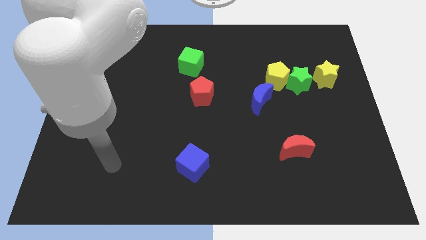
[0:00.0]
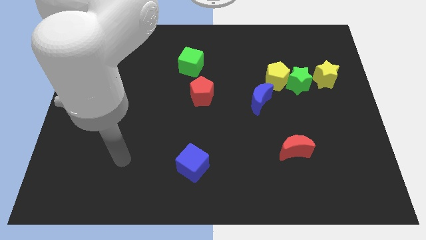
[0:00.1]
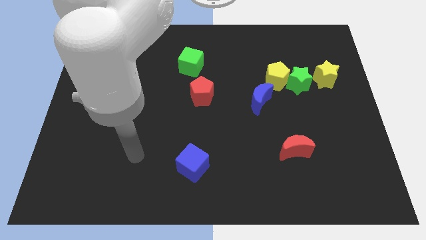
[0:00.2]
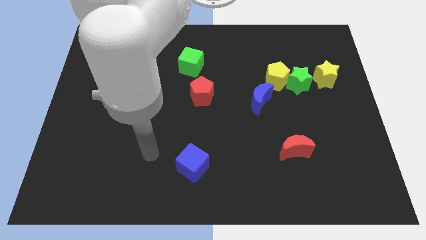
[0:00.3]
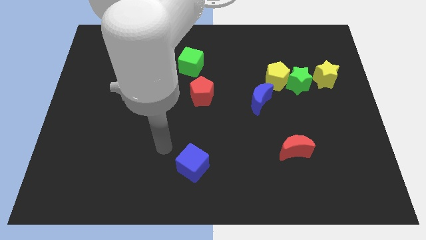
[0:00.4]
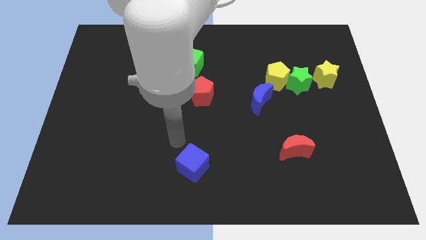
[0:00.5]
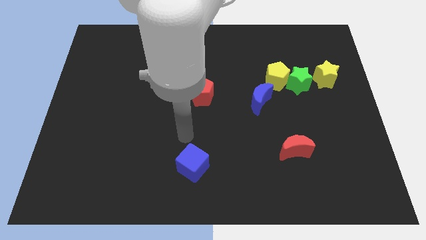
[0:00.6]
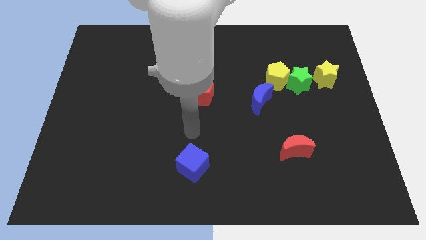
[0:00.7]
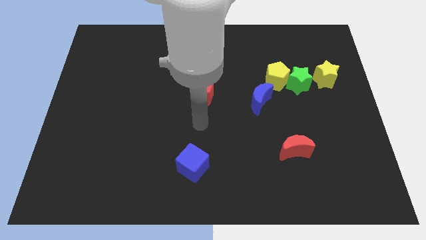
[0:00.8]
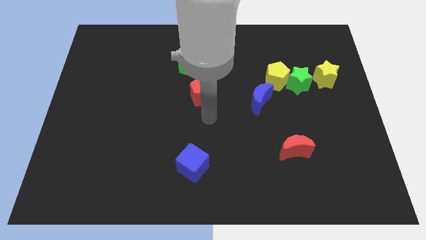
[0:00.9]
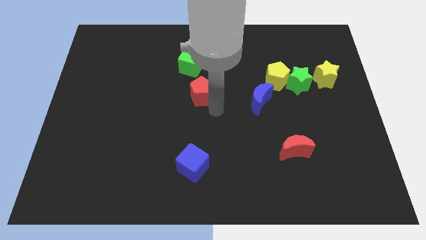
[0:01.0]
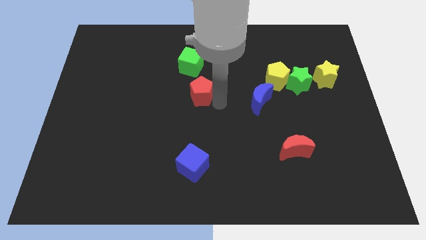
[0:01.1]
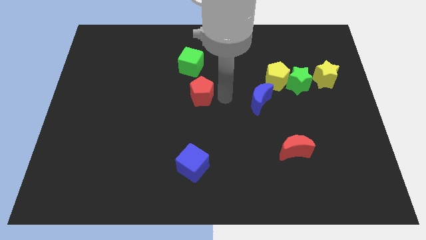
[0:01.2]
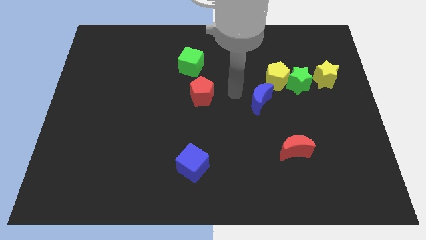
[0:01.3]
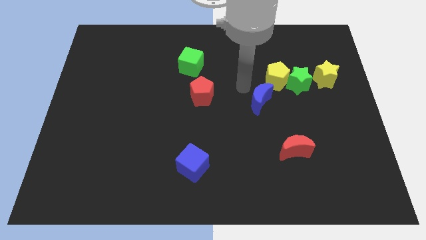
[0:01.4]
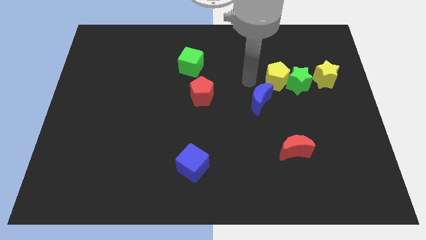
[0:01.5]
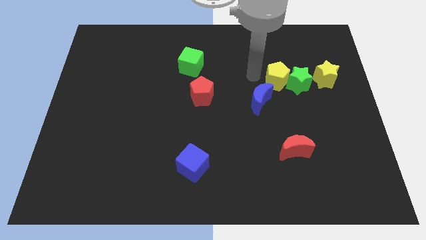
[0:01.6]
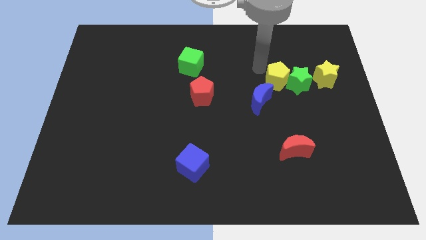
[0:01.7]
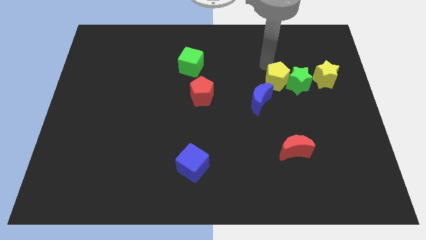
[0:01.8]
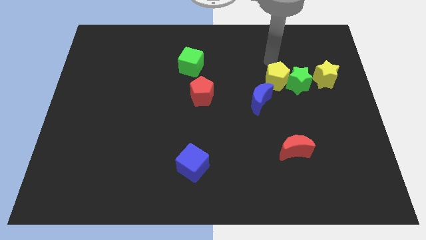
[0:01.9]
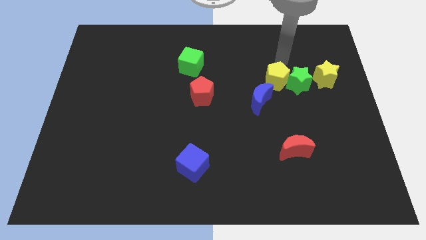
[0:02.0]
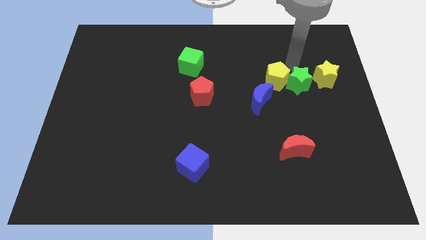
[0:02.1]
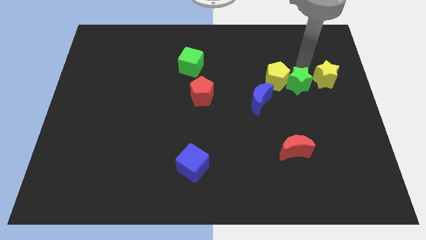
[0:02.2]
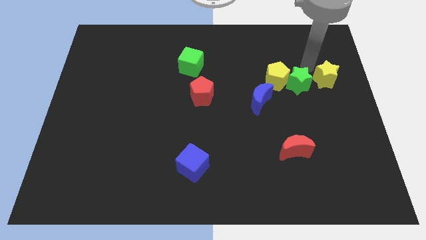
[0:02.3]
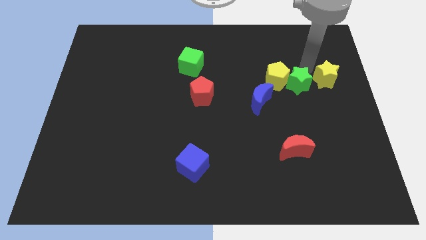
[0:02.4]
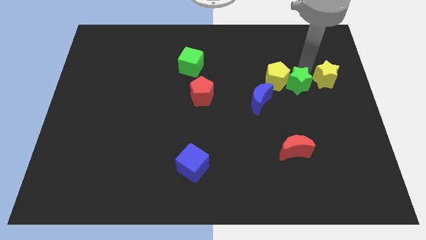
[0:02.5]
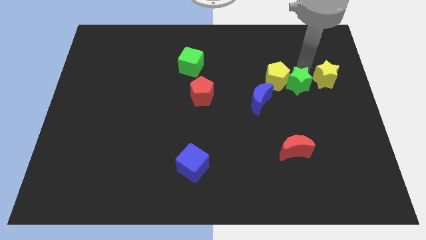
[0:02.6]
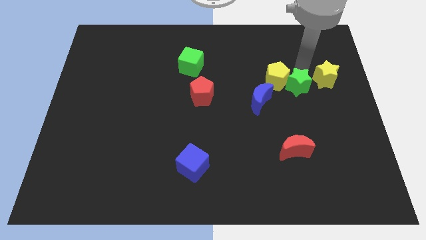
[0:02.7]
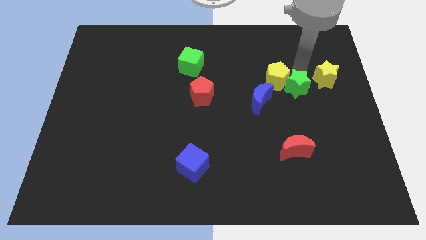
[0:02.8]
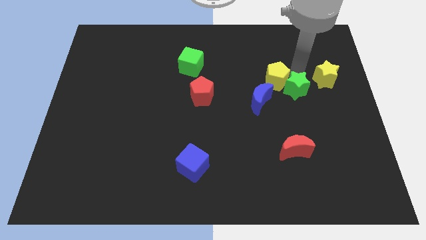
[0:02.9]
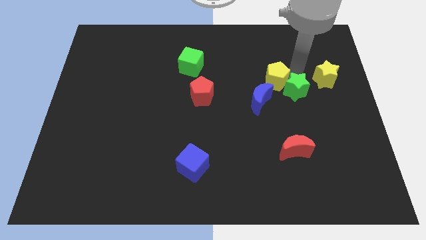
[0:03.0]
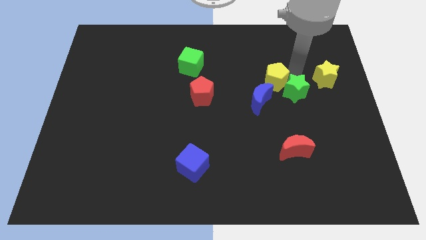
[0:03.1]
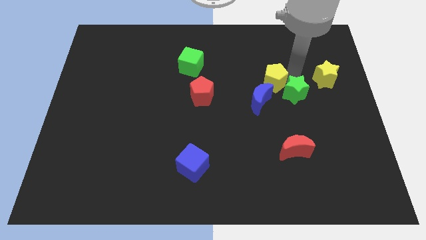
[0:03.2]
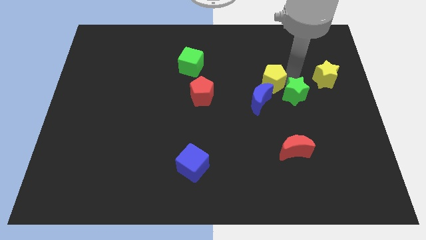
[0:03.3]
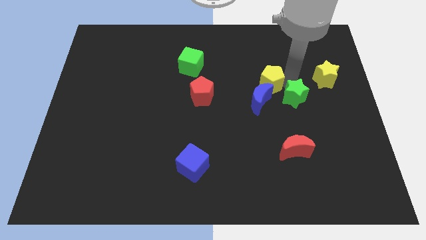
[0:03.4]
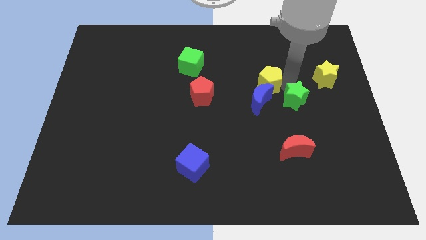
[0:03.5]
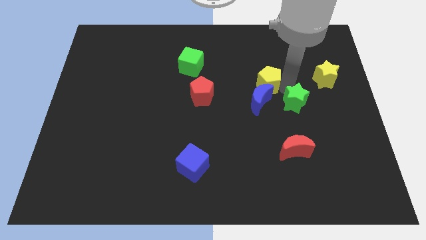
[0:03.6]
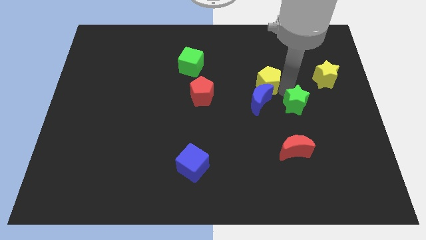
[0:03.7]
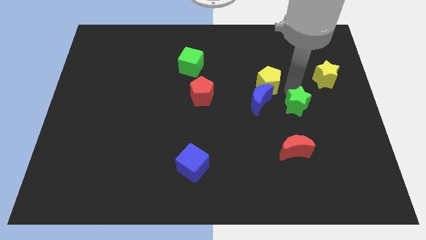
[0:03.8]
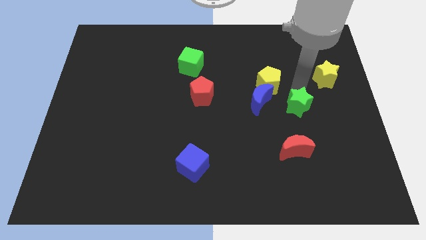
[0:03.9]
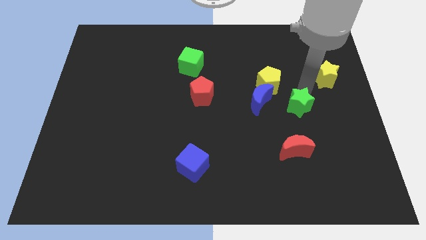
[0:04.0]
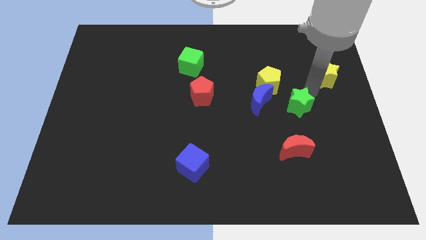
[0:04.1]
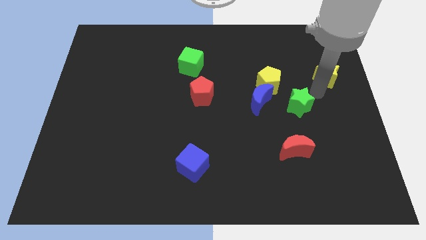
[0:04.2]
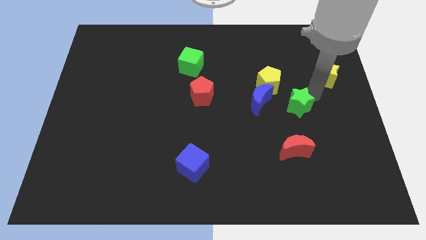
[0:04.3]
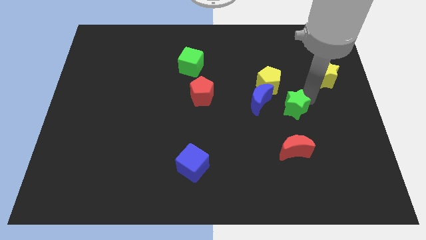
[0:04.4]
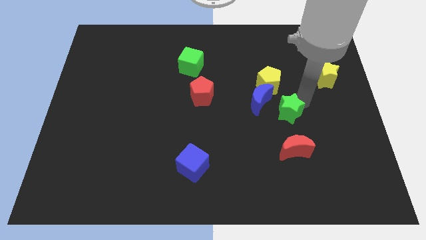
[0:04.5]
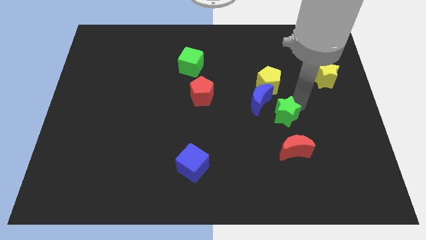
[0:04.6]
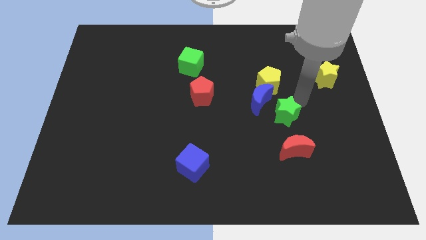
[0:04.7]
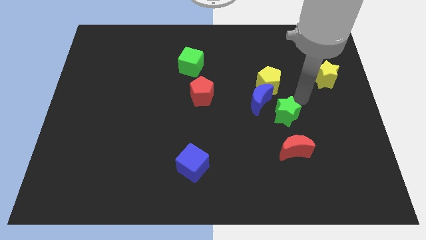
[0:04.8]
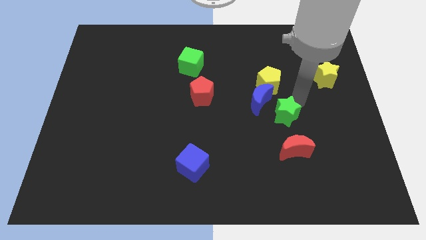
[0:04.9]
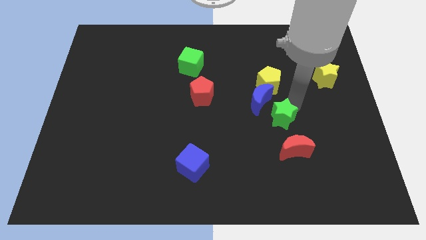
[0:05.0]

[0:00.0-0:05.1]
move the green star diagonally up and to the left of the red moon

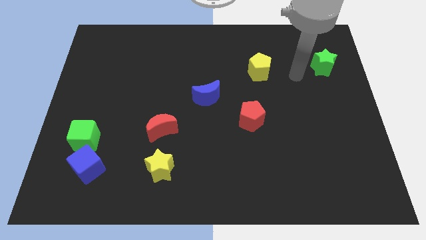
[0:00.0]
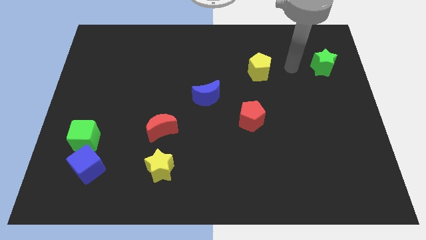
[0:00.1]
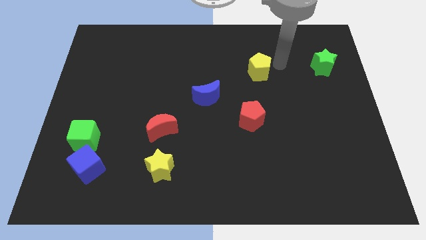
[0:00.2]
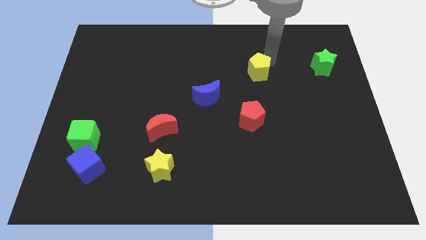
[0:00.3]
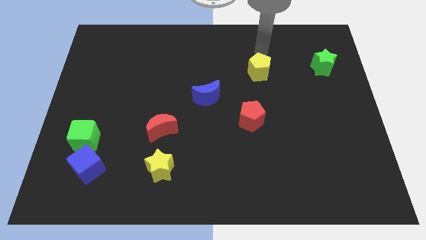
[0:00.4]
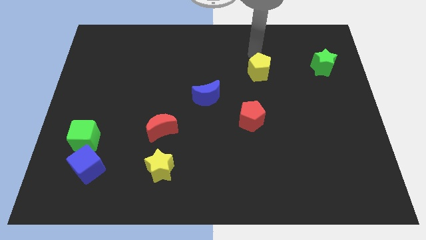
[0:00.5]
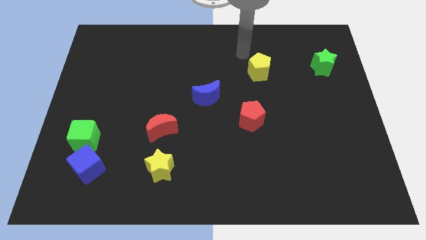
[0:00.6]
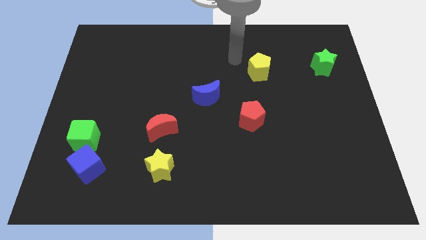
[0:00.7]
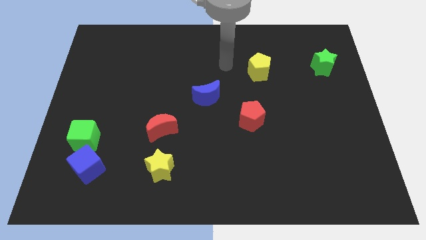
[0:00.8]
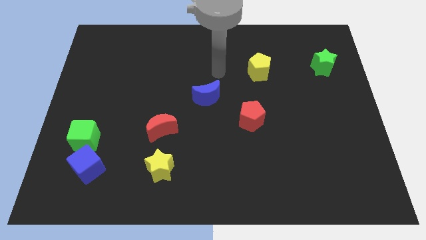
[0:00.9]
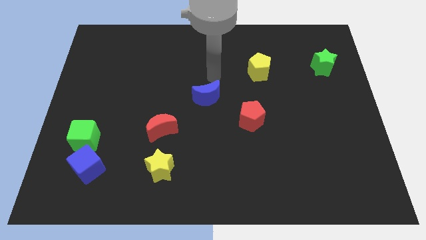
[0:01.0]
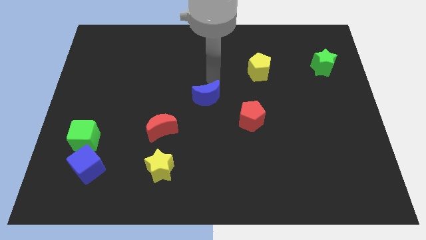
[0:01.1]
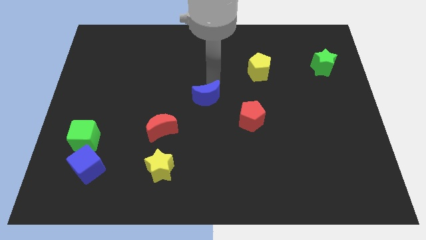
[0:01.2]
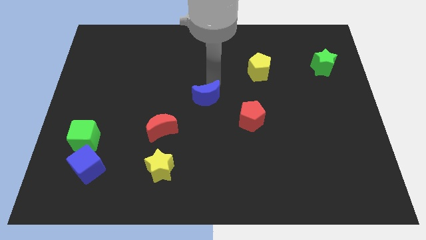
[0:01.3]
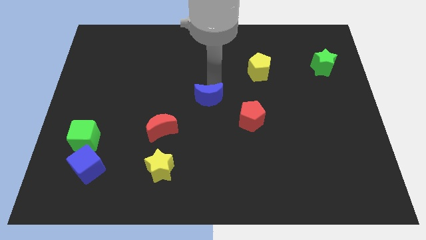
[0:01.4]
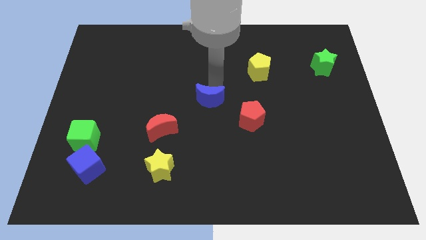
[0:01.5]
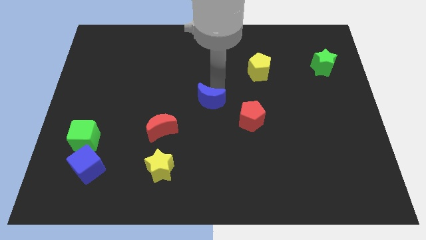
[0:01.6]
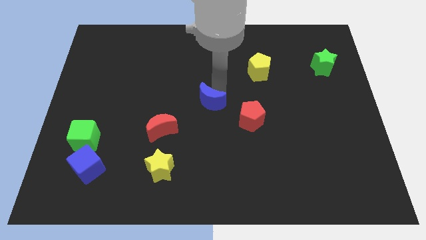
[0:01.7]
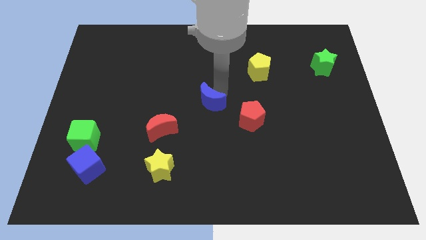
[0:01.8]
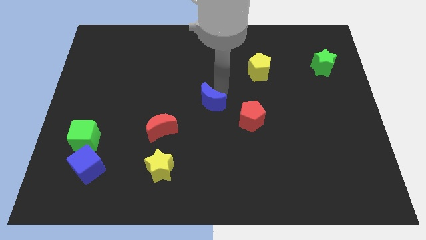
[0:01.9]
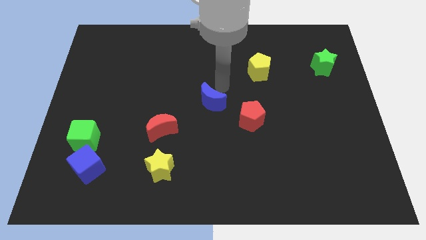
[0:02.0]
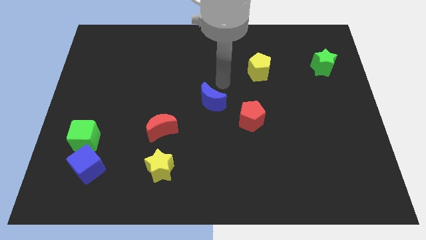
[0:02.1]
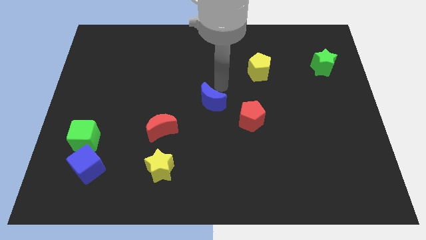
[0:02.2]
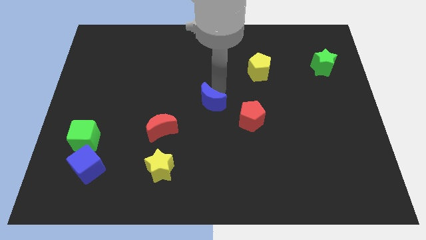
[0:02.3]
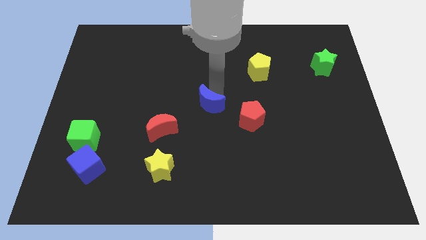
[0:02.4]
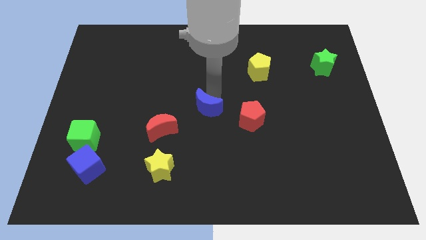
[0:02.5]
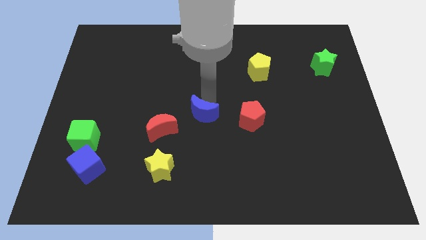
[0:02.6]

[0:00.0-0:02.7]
move the blue moon to the right side of the red moon

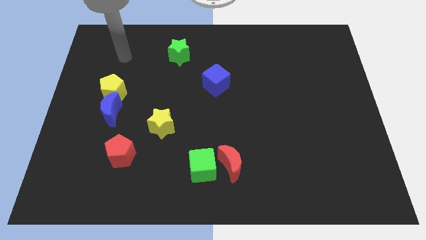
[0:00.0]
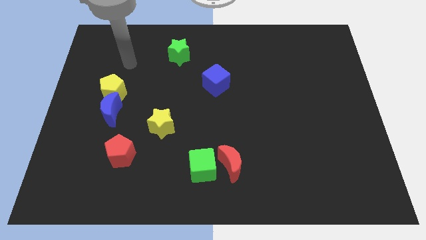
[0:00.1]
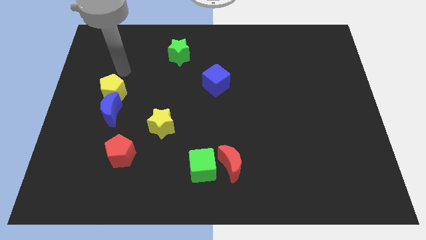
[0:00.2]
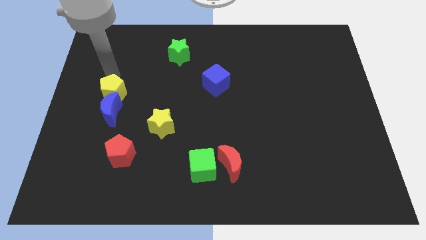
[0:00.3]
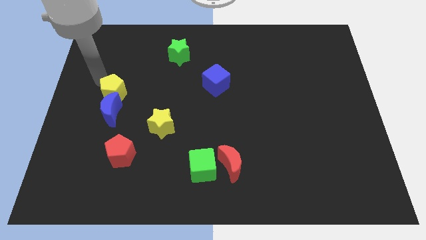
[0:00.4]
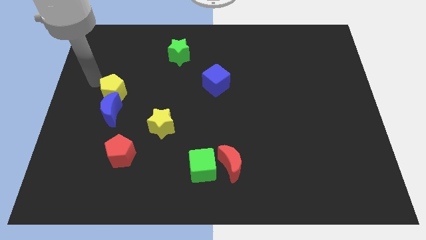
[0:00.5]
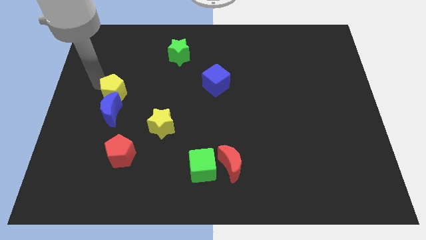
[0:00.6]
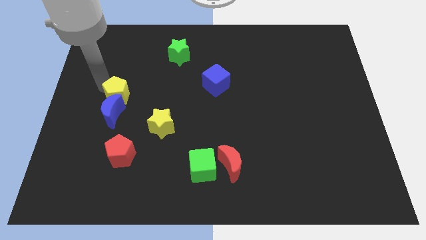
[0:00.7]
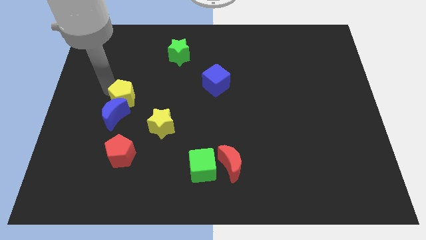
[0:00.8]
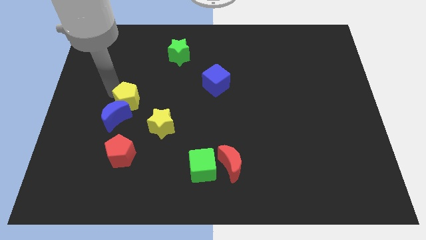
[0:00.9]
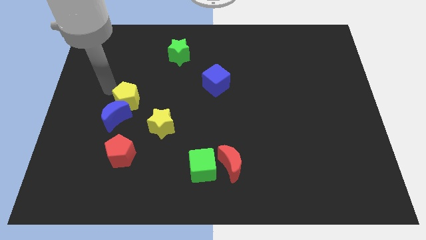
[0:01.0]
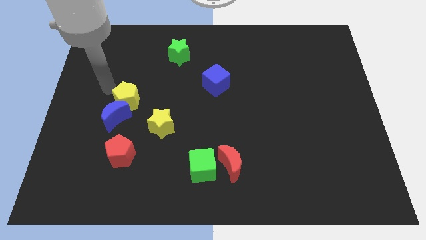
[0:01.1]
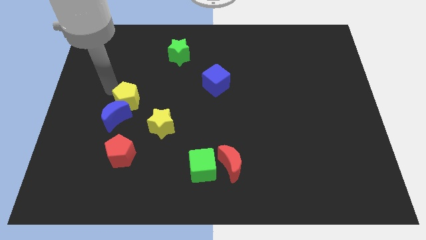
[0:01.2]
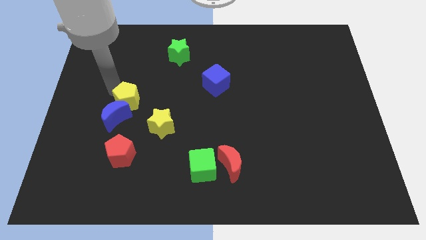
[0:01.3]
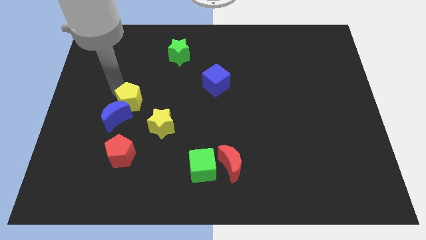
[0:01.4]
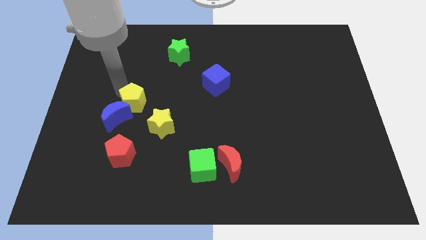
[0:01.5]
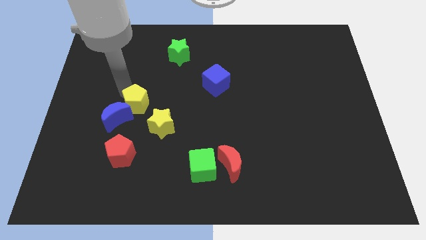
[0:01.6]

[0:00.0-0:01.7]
slide the yellow pentagon right of the blue moon
